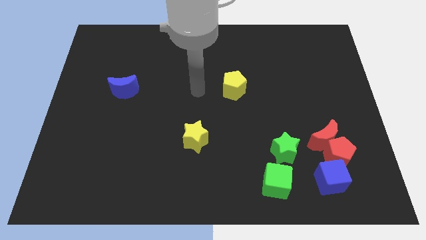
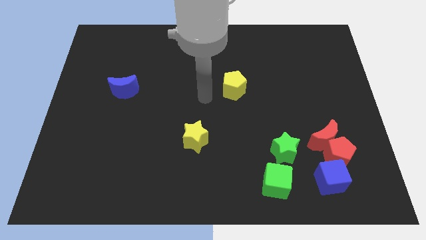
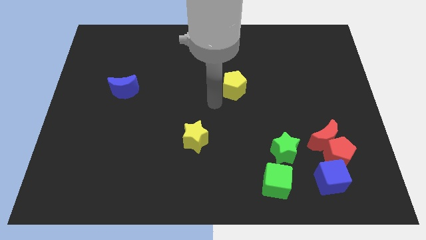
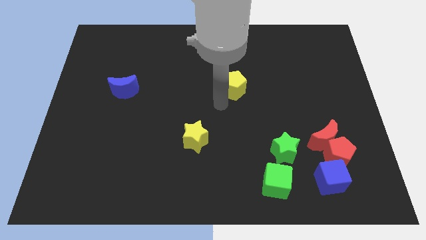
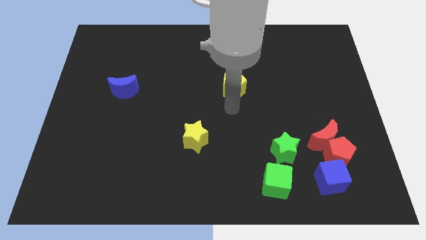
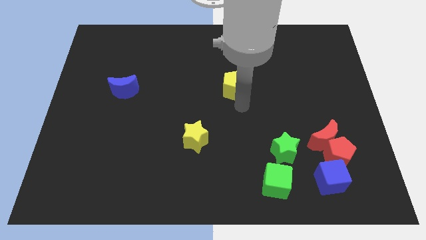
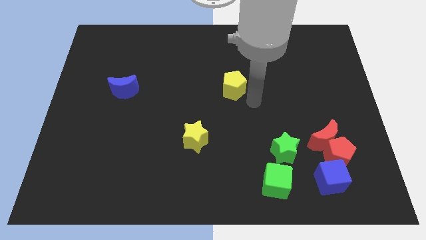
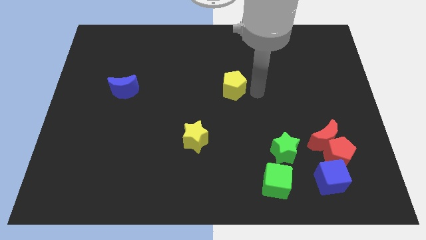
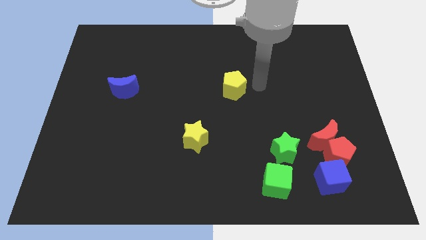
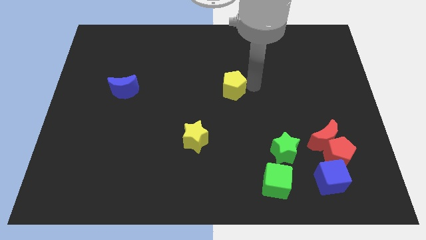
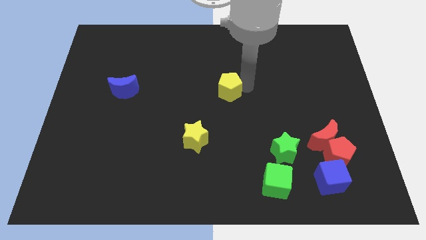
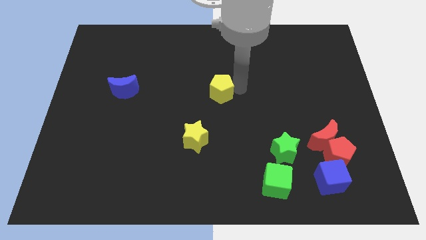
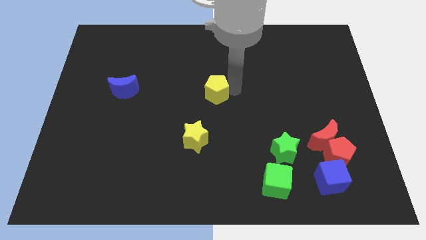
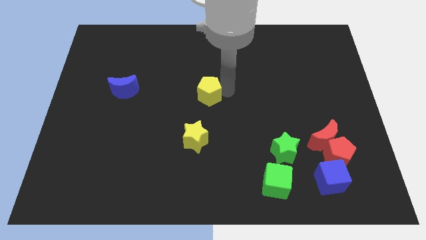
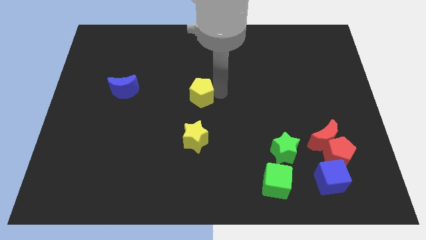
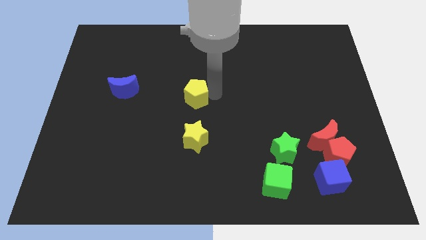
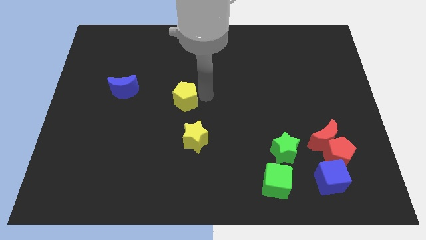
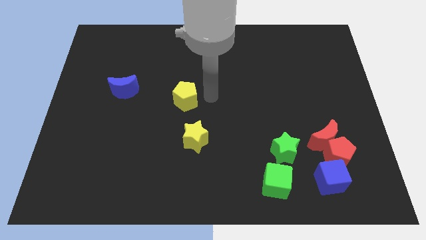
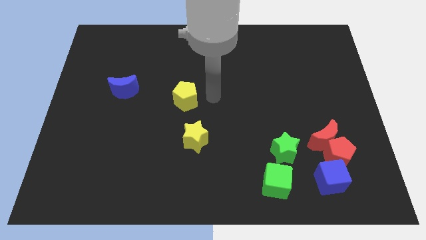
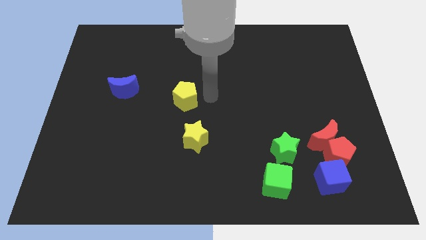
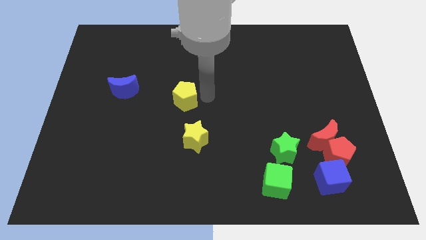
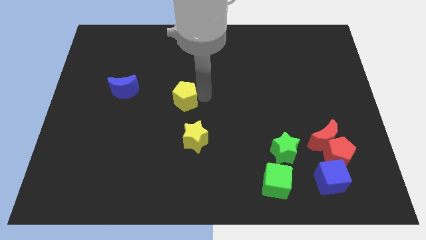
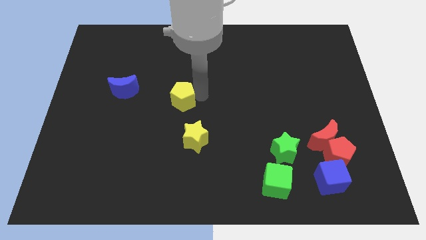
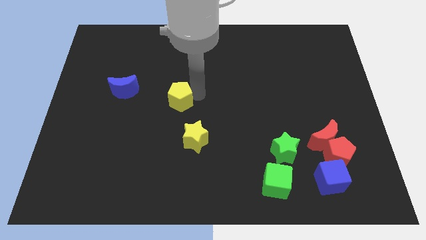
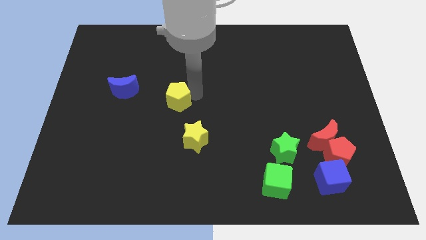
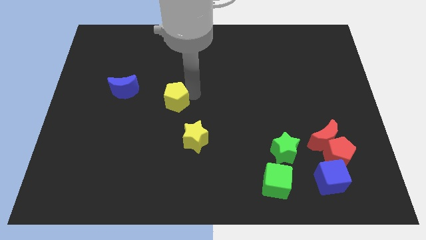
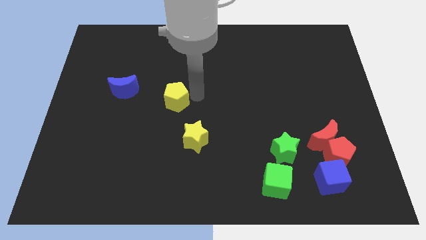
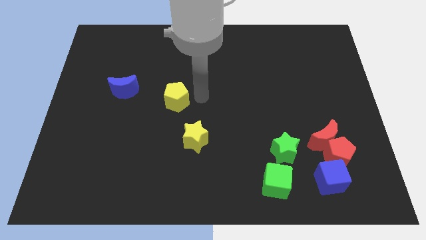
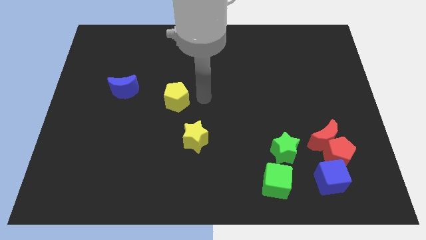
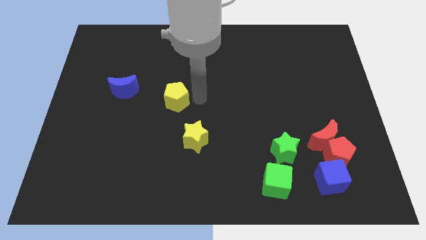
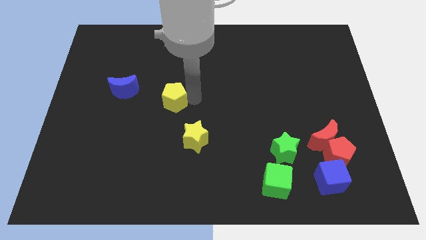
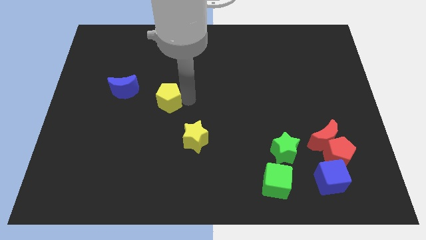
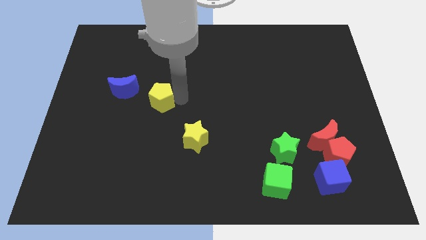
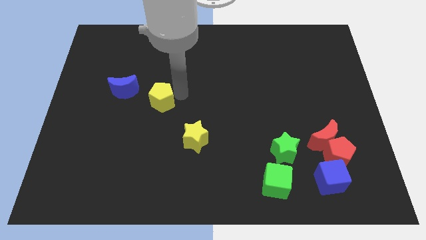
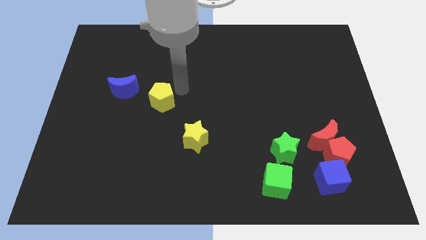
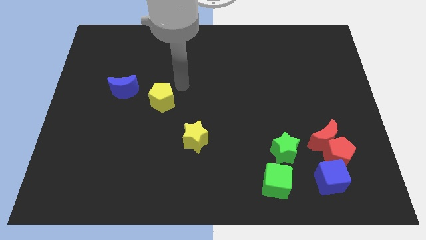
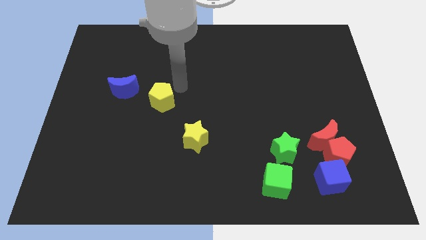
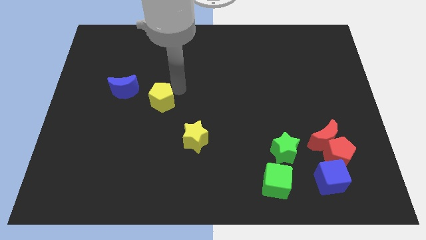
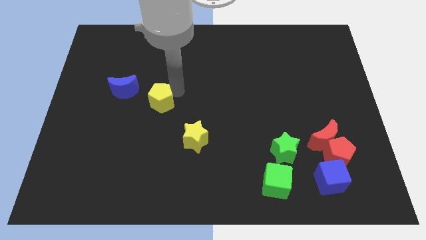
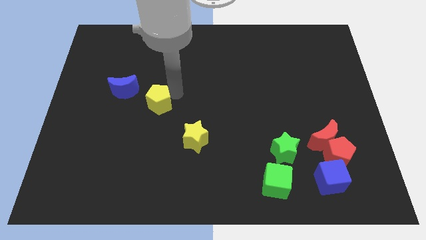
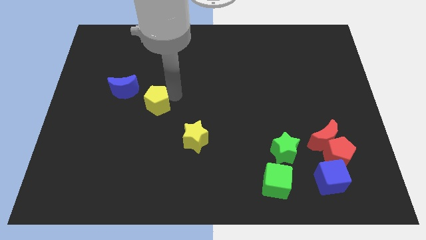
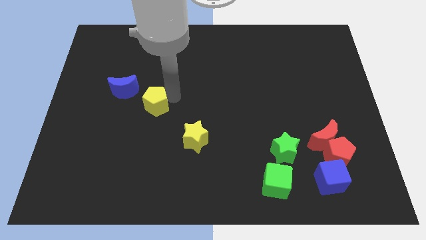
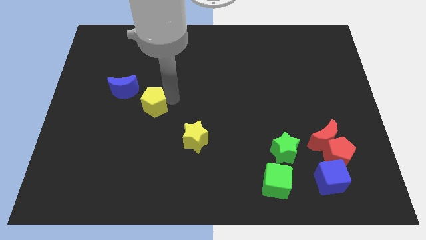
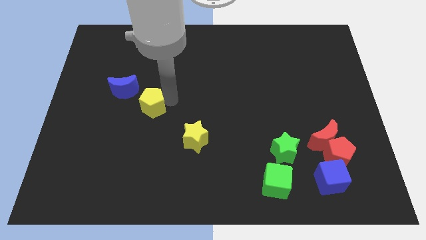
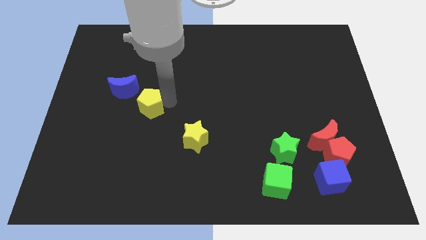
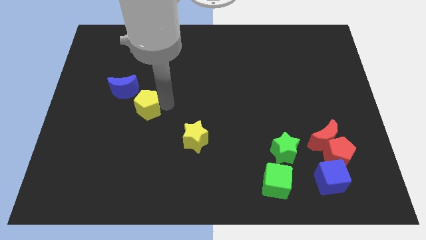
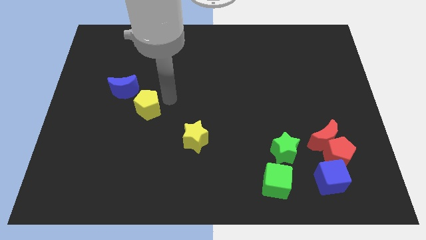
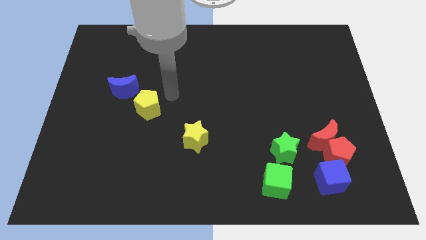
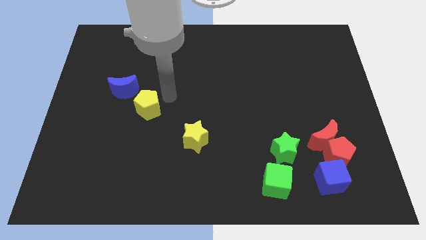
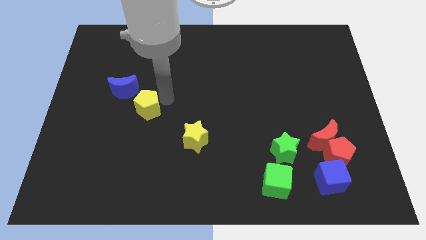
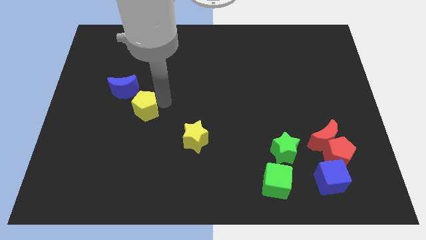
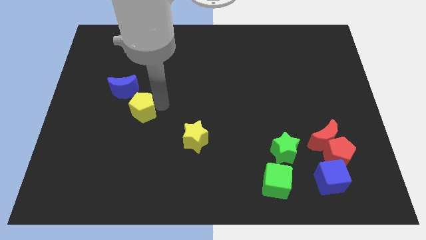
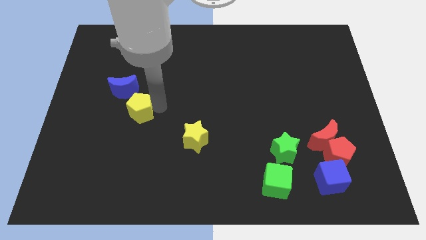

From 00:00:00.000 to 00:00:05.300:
push the yellow pentagon to the bottom of the blue moon

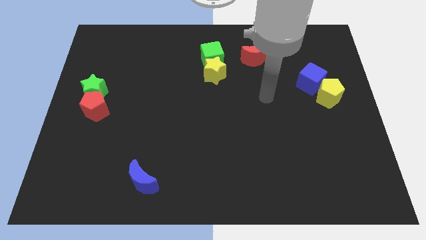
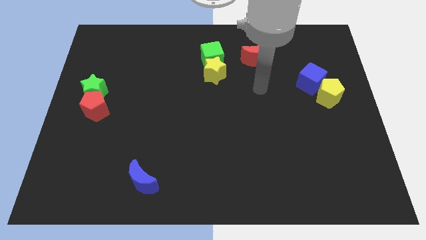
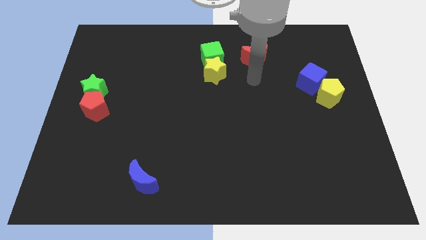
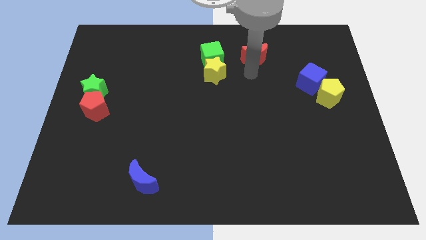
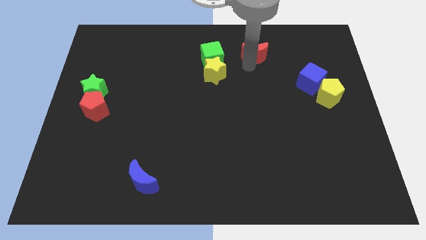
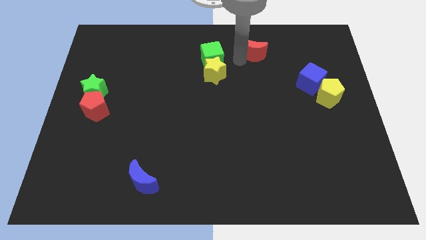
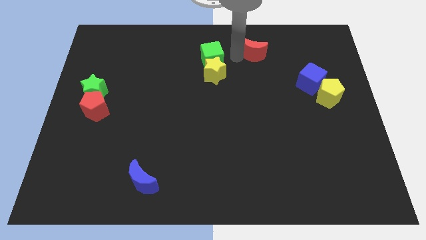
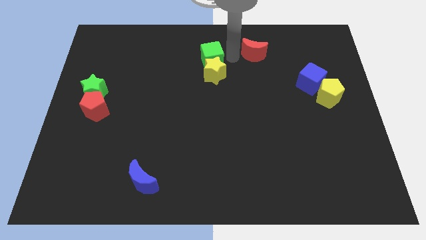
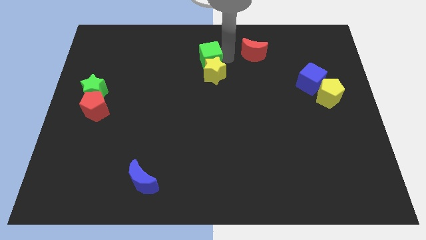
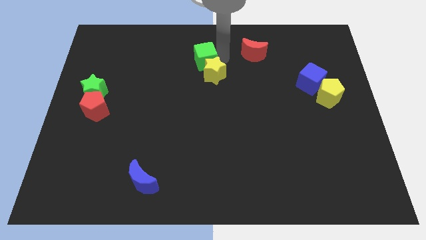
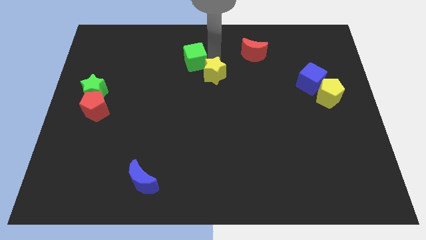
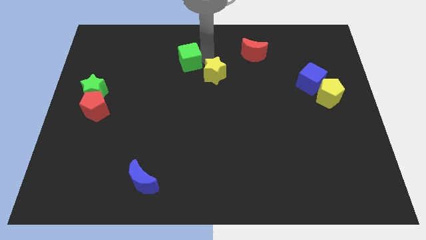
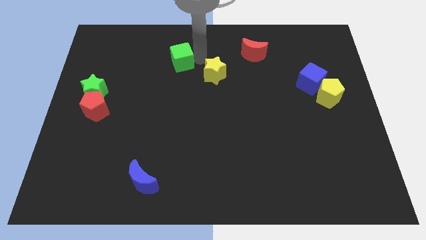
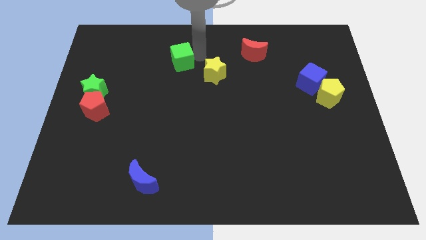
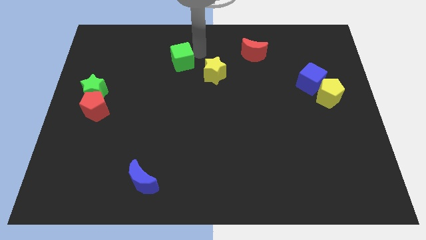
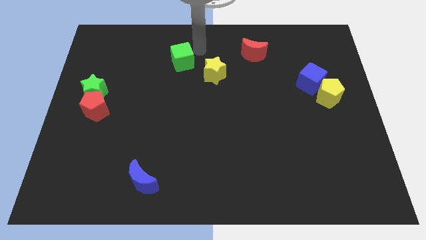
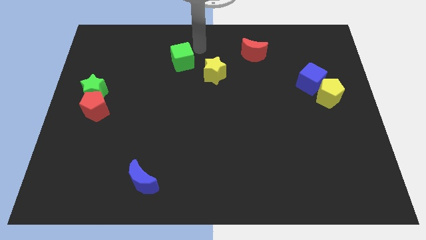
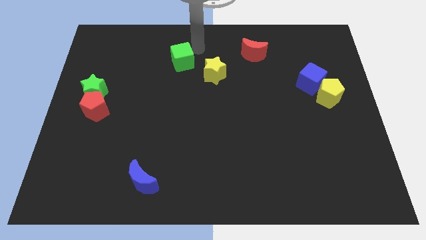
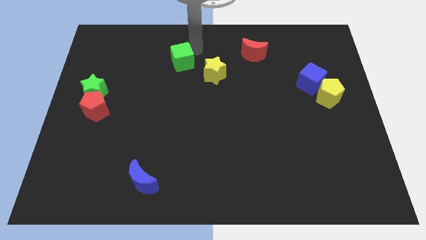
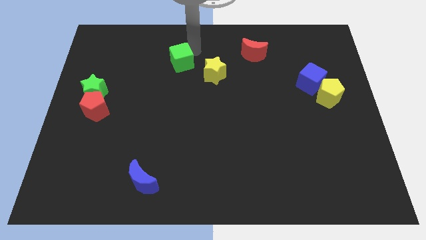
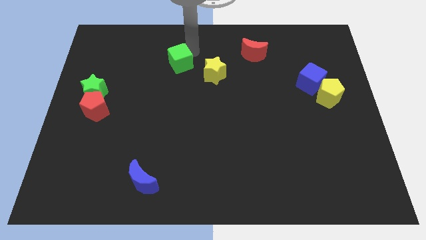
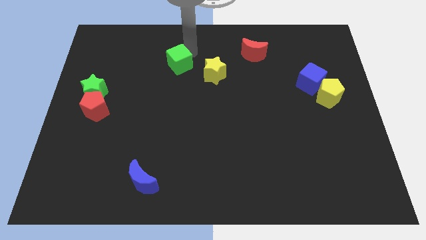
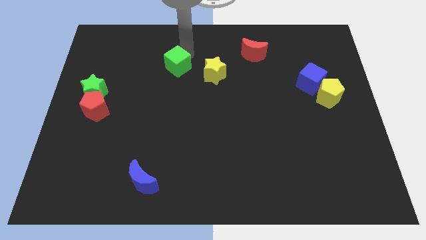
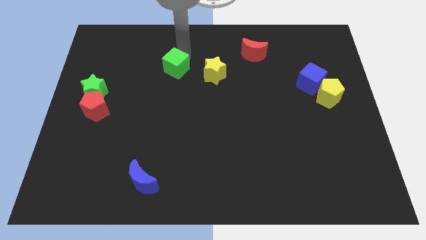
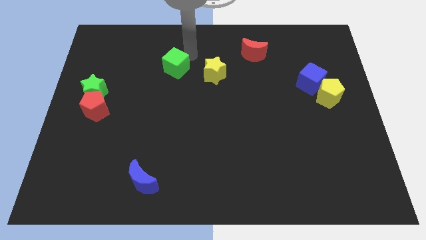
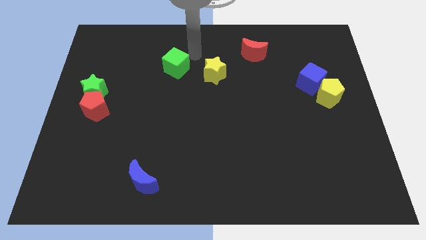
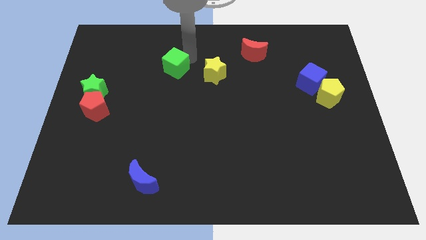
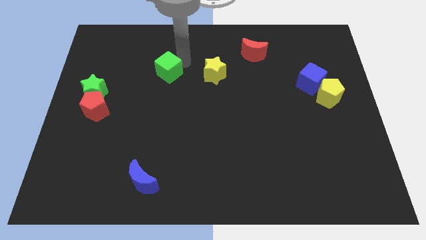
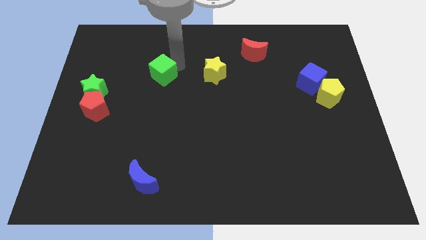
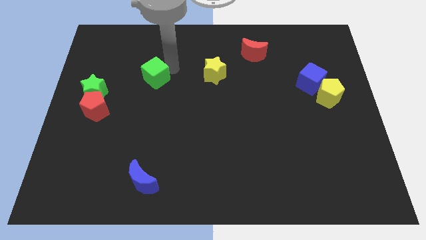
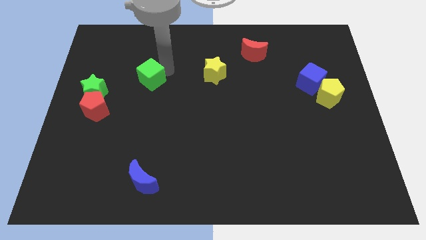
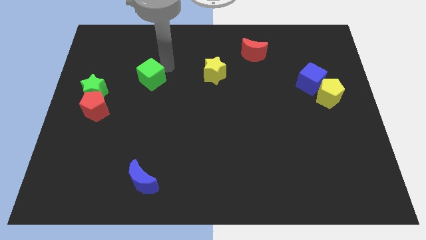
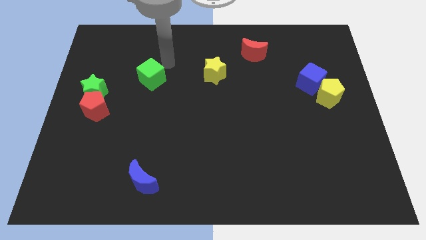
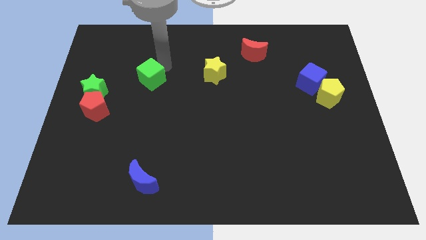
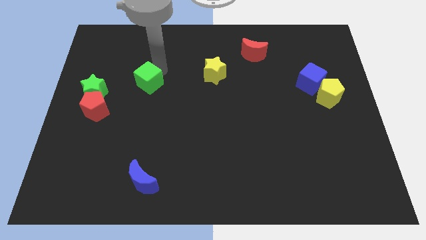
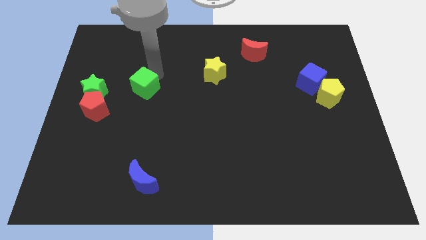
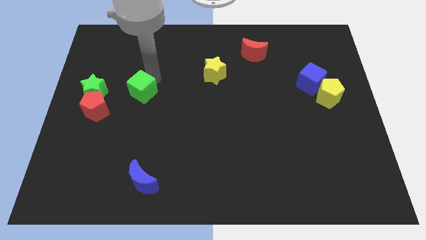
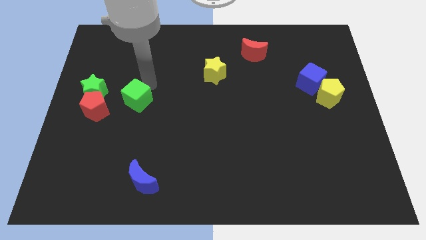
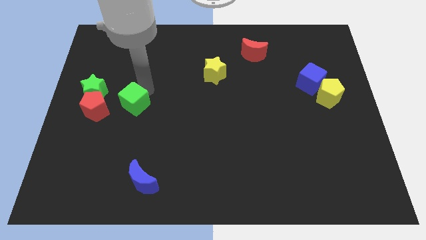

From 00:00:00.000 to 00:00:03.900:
push the green cube diagonally down and to the right of the green star
